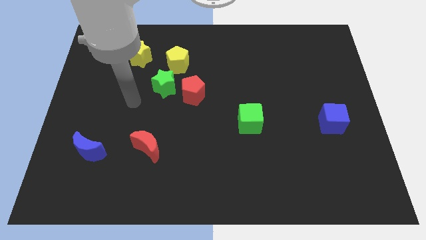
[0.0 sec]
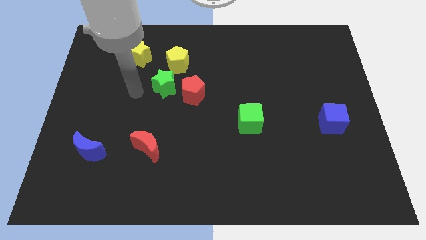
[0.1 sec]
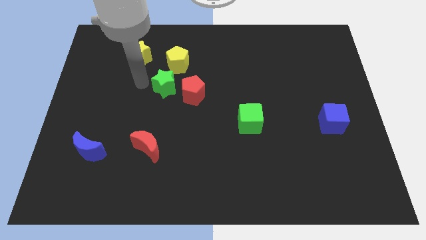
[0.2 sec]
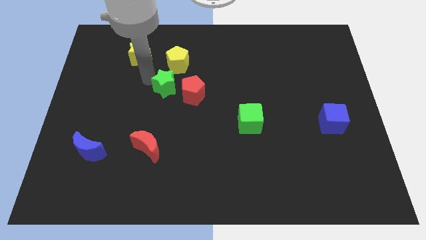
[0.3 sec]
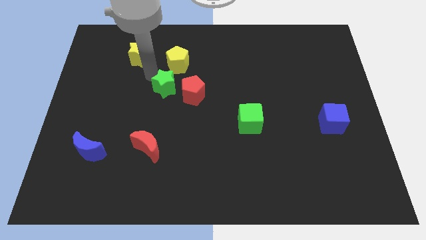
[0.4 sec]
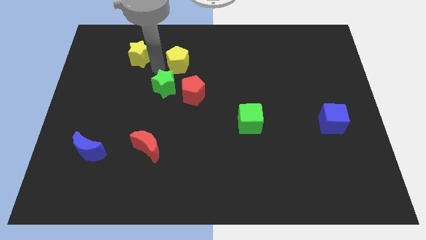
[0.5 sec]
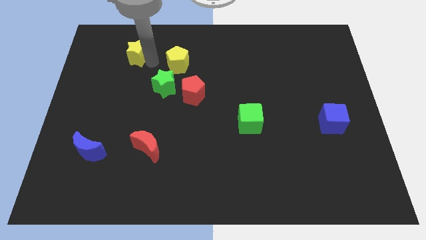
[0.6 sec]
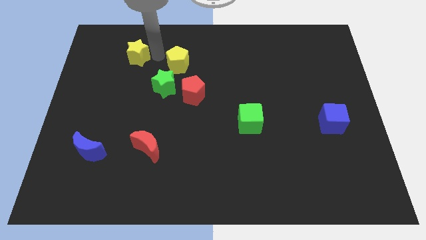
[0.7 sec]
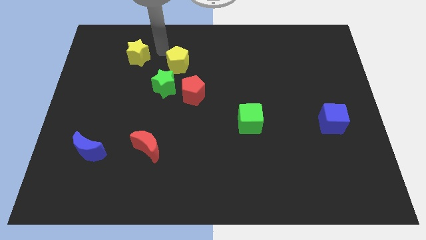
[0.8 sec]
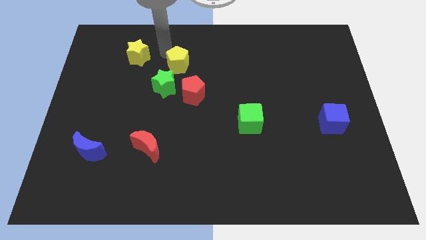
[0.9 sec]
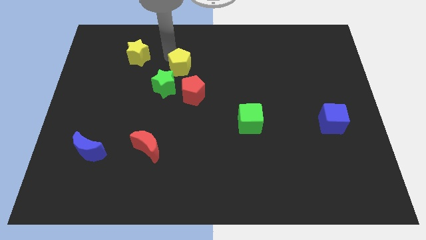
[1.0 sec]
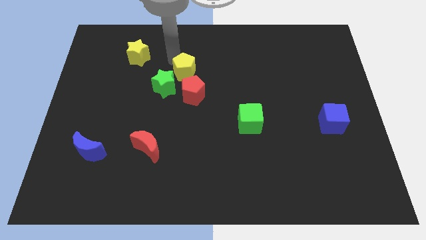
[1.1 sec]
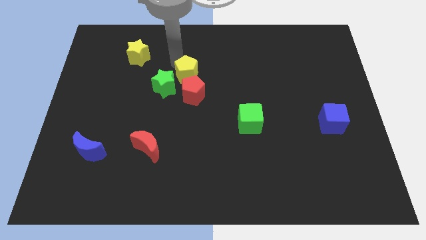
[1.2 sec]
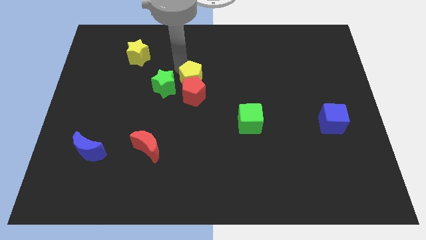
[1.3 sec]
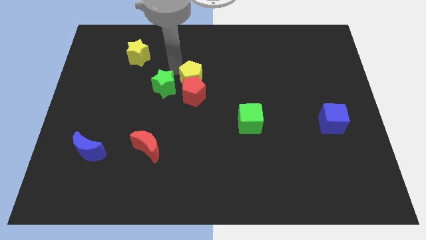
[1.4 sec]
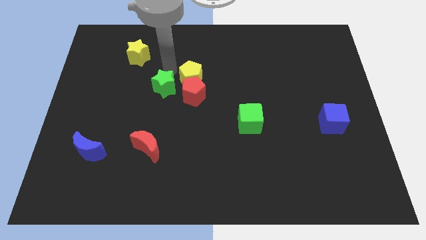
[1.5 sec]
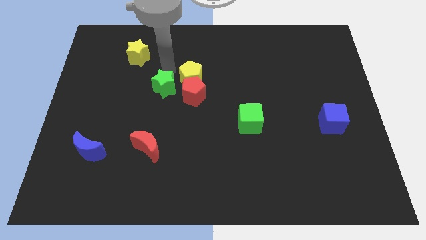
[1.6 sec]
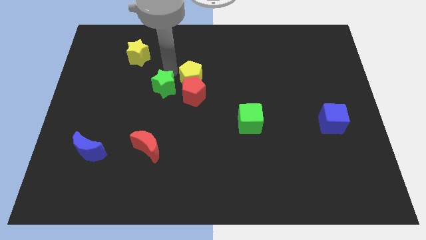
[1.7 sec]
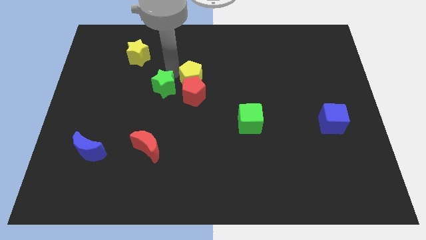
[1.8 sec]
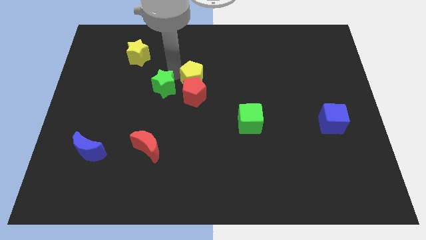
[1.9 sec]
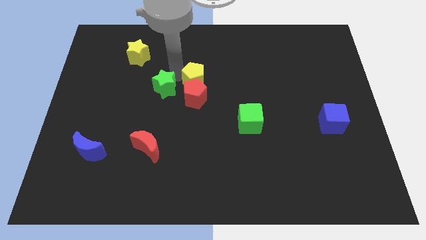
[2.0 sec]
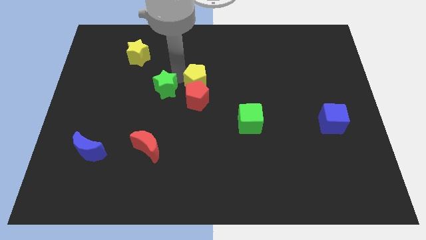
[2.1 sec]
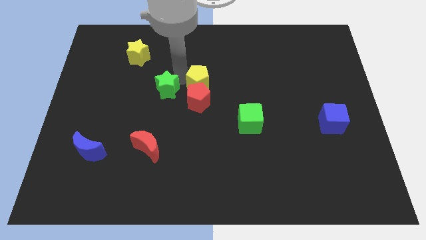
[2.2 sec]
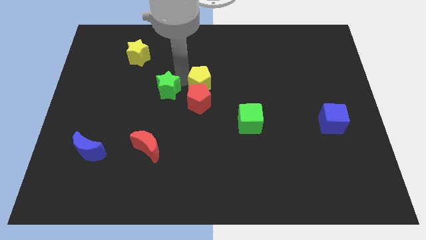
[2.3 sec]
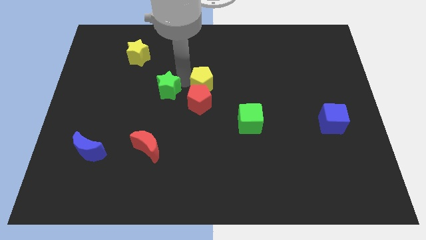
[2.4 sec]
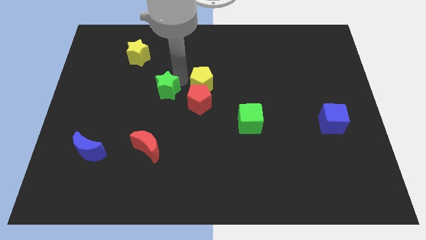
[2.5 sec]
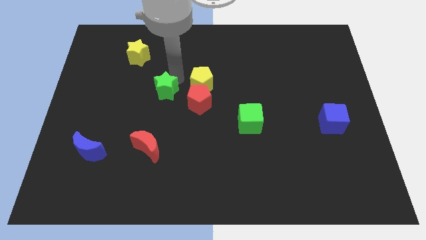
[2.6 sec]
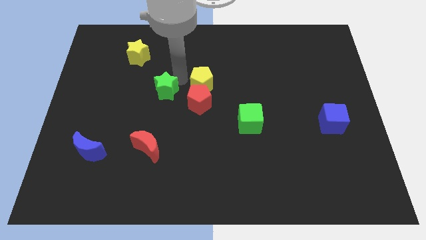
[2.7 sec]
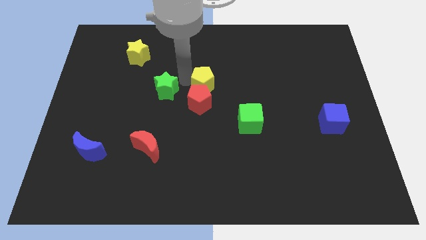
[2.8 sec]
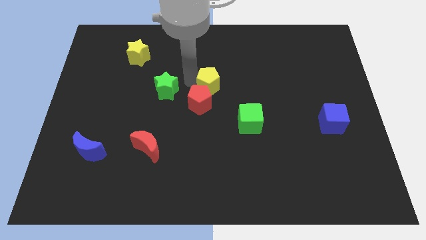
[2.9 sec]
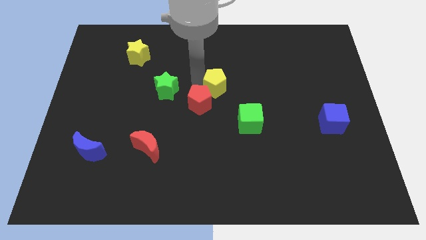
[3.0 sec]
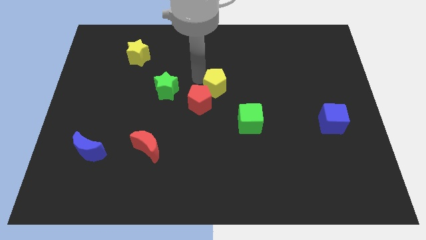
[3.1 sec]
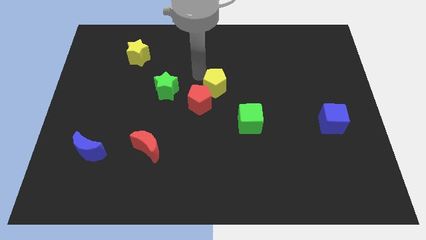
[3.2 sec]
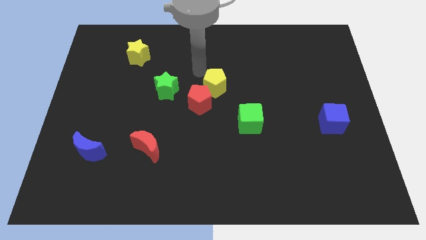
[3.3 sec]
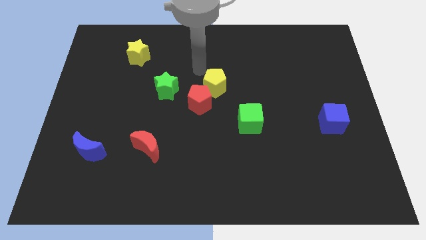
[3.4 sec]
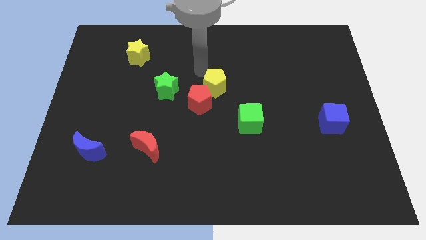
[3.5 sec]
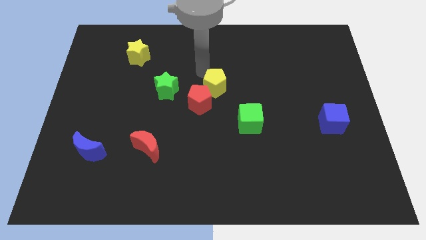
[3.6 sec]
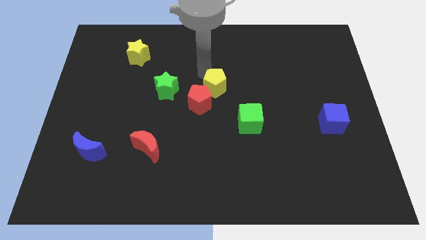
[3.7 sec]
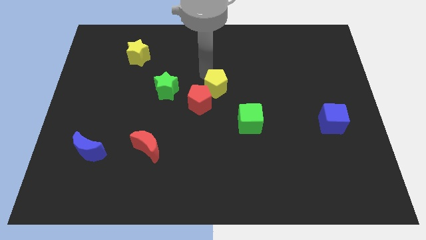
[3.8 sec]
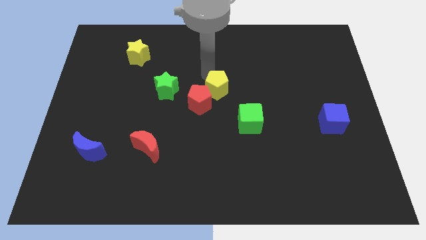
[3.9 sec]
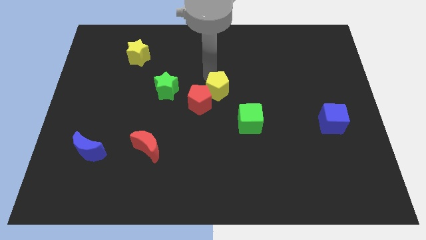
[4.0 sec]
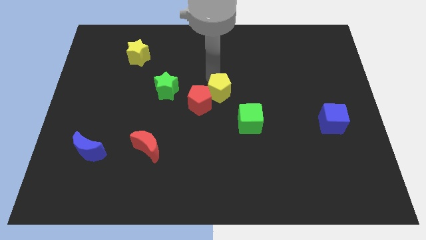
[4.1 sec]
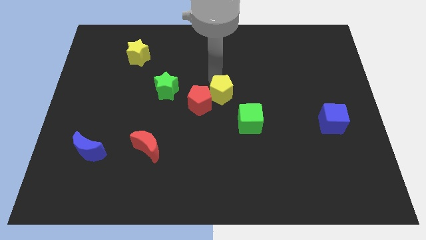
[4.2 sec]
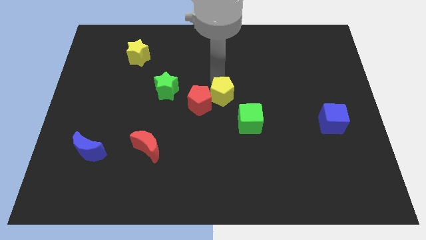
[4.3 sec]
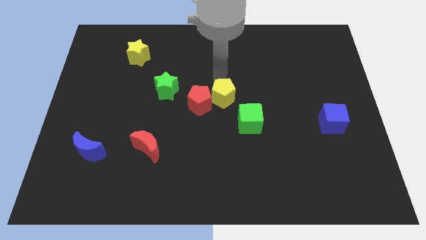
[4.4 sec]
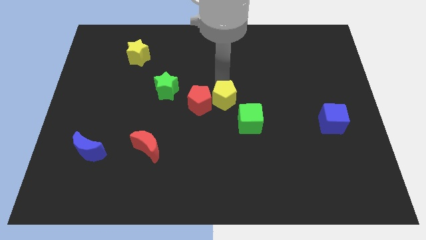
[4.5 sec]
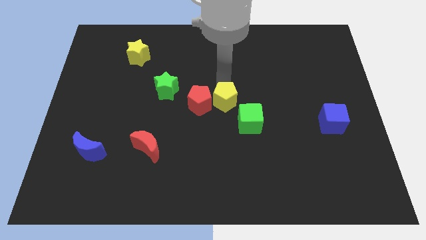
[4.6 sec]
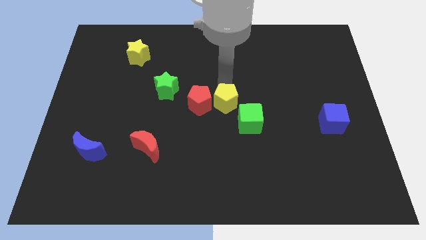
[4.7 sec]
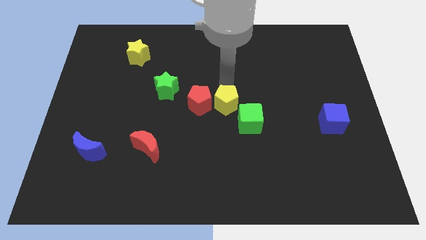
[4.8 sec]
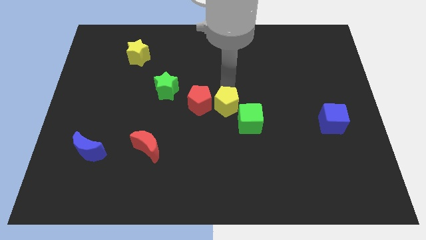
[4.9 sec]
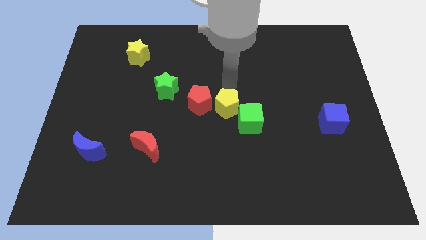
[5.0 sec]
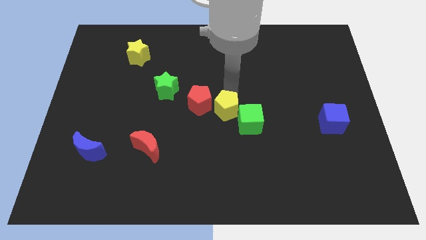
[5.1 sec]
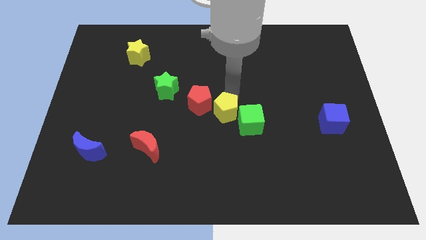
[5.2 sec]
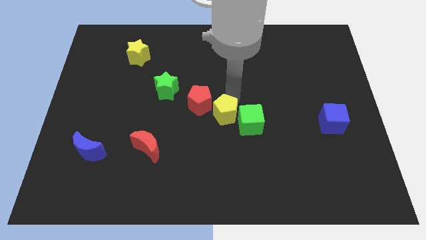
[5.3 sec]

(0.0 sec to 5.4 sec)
move the yellow pentagon next to the green cube

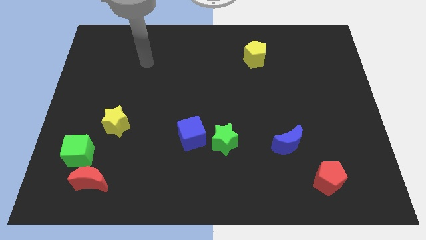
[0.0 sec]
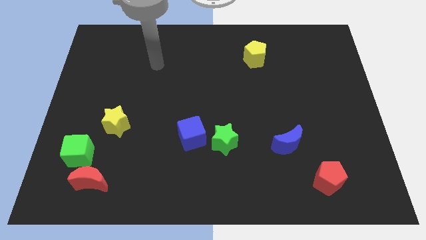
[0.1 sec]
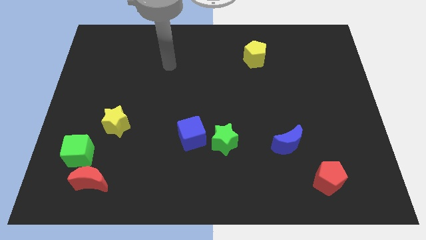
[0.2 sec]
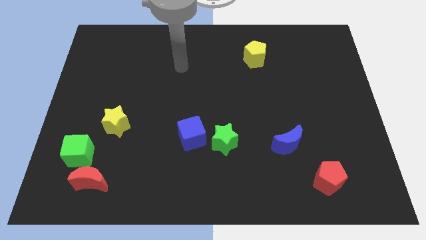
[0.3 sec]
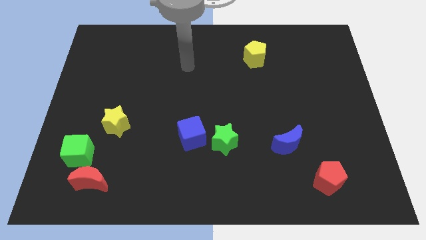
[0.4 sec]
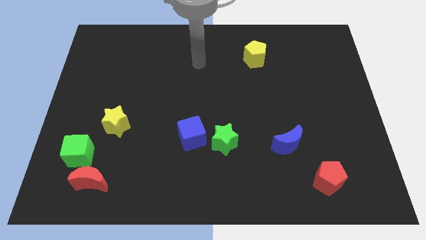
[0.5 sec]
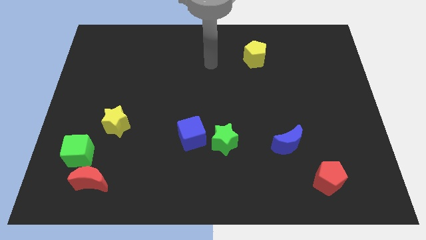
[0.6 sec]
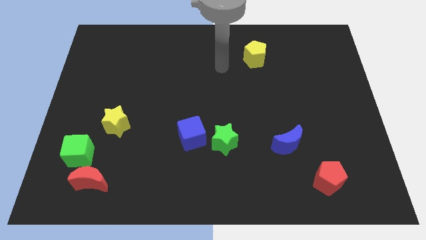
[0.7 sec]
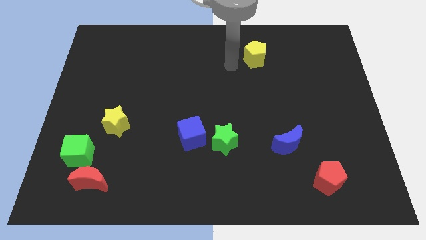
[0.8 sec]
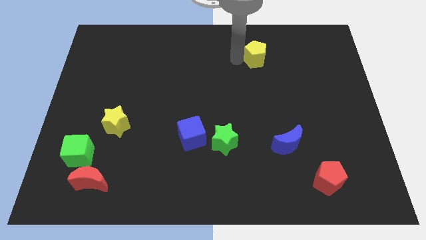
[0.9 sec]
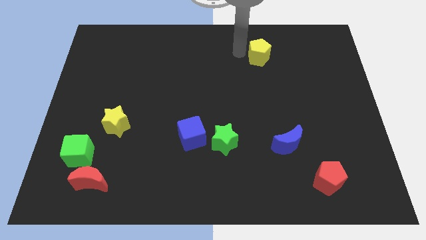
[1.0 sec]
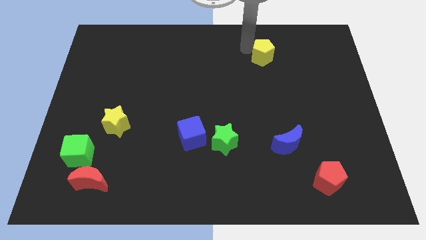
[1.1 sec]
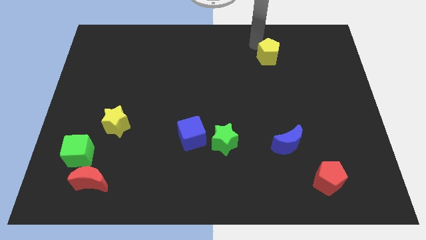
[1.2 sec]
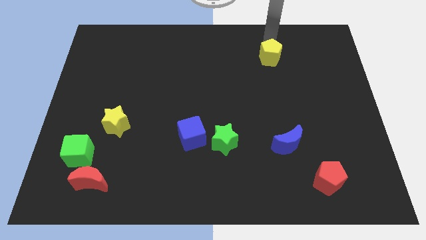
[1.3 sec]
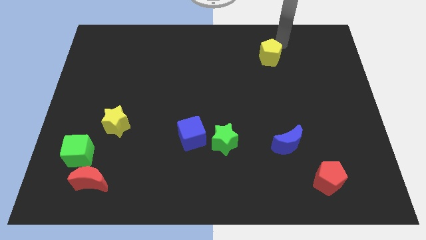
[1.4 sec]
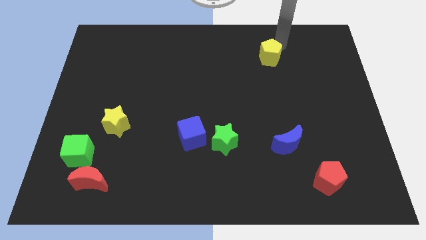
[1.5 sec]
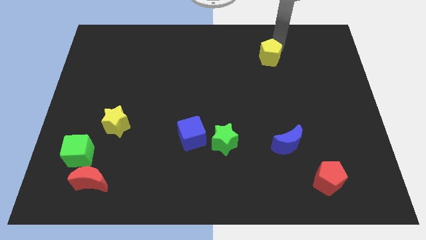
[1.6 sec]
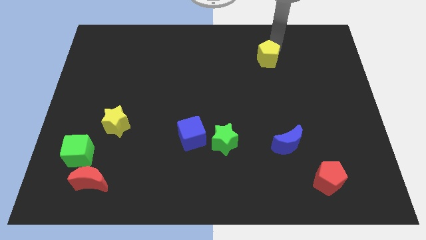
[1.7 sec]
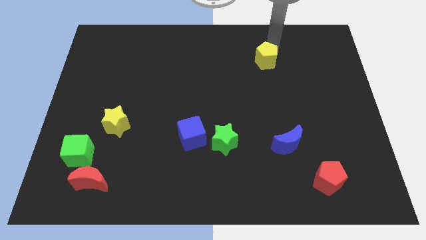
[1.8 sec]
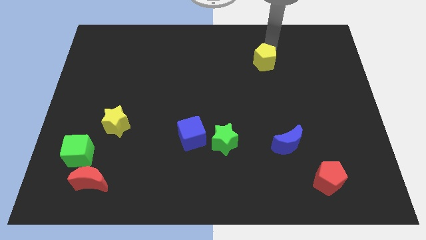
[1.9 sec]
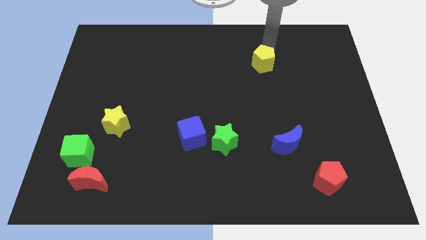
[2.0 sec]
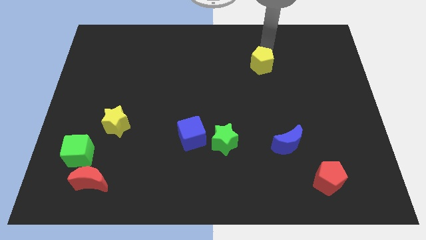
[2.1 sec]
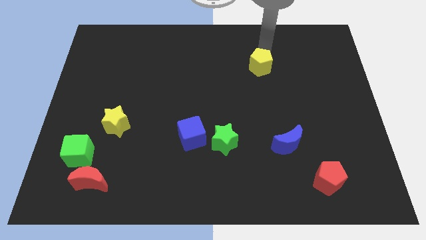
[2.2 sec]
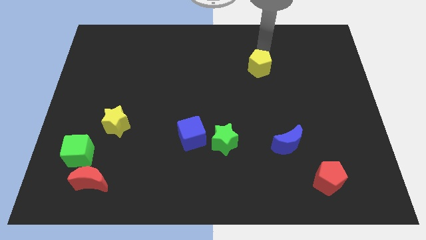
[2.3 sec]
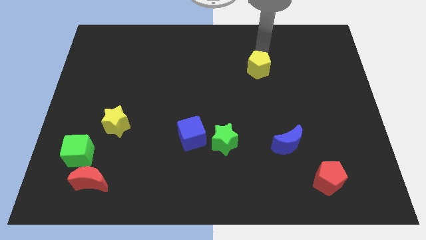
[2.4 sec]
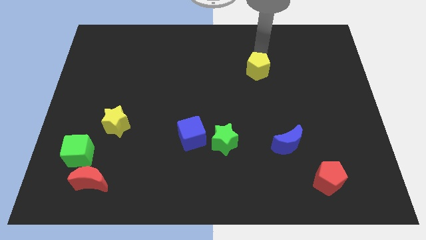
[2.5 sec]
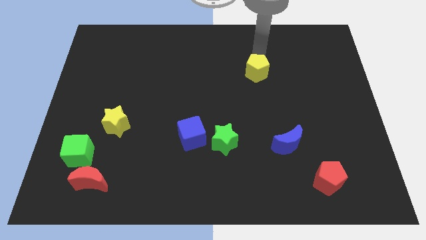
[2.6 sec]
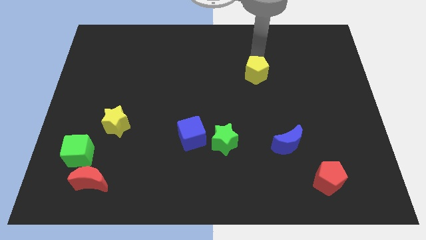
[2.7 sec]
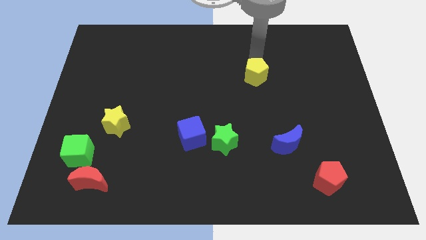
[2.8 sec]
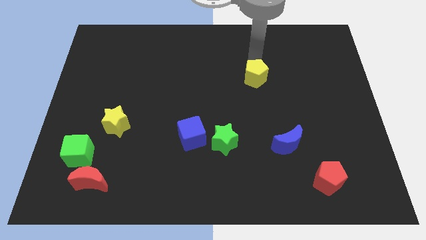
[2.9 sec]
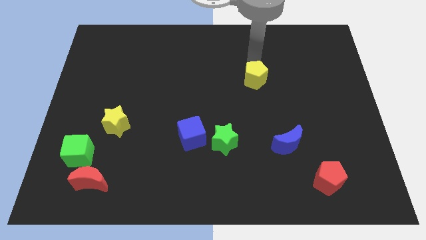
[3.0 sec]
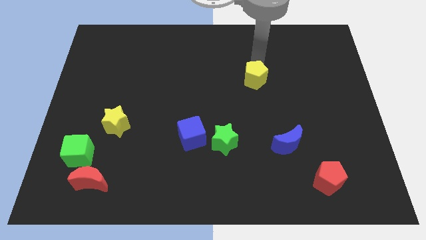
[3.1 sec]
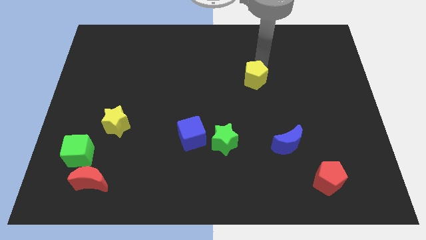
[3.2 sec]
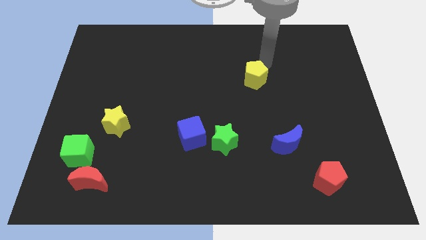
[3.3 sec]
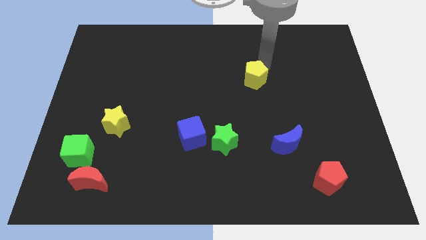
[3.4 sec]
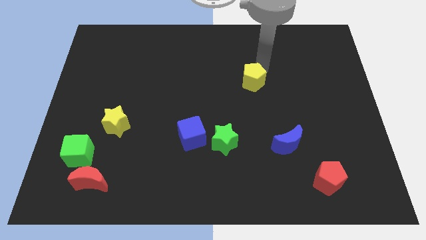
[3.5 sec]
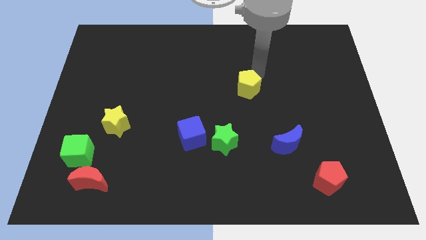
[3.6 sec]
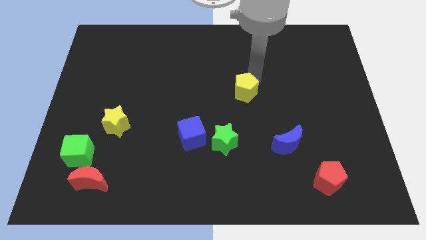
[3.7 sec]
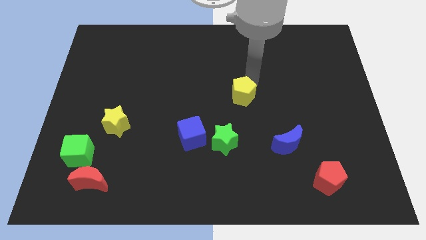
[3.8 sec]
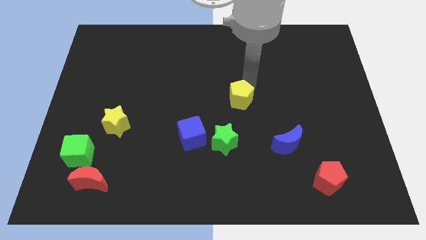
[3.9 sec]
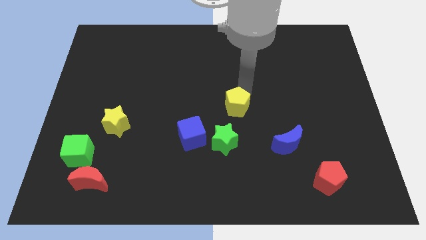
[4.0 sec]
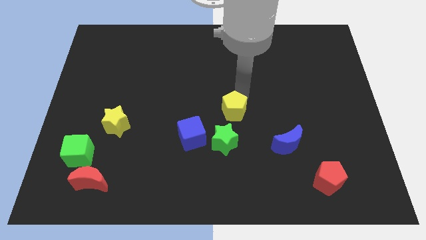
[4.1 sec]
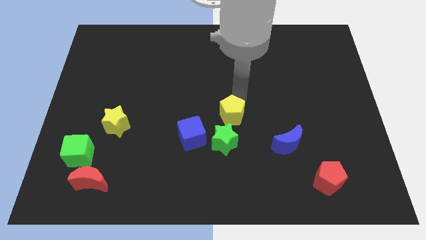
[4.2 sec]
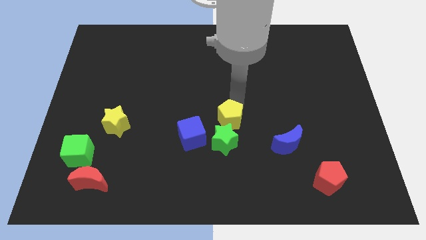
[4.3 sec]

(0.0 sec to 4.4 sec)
push the yellow pentagon close to the green star
